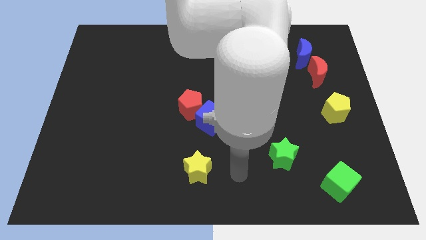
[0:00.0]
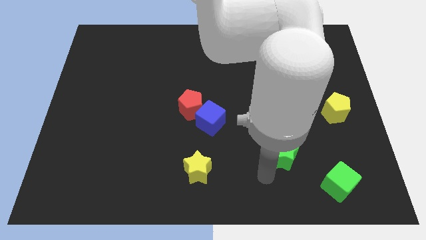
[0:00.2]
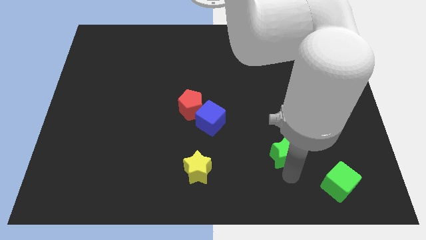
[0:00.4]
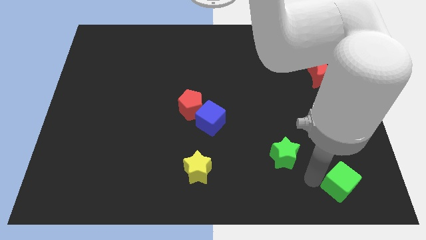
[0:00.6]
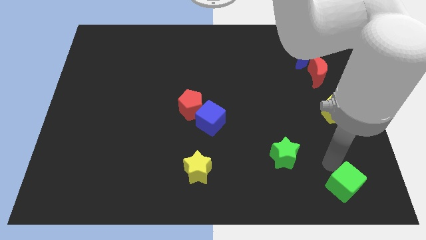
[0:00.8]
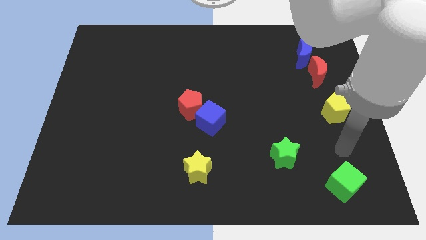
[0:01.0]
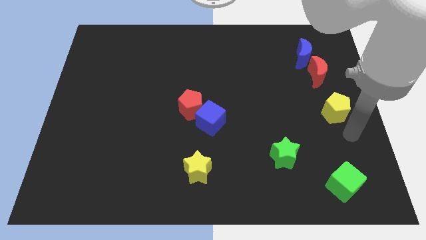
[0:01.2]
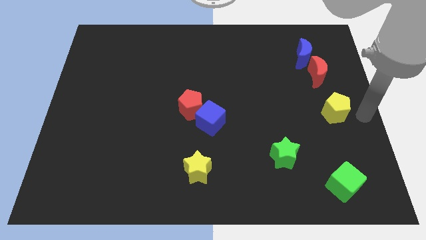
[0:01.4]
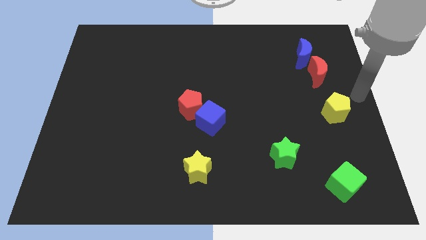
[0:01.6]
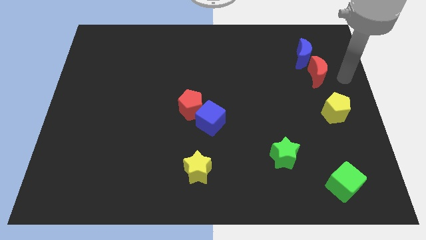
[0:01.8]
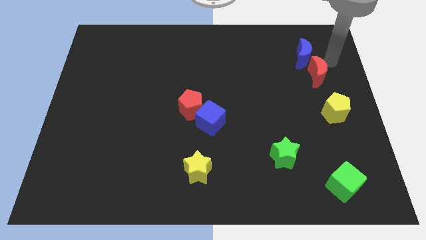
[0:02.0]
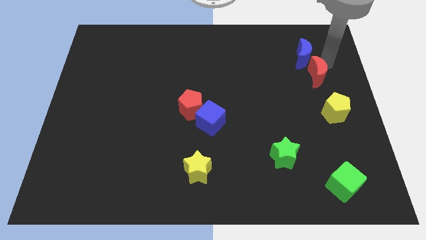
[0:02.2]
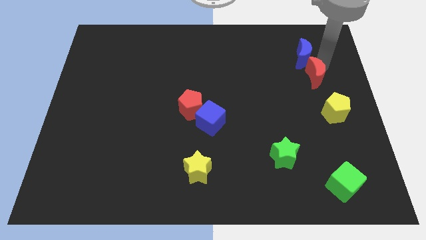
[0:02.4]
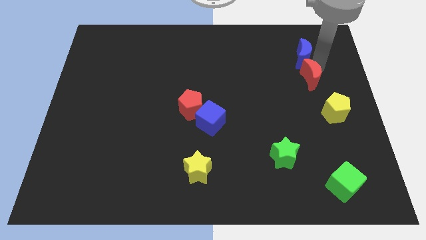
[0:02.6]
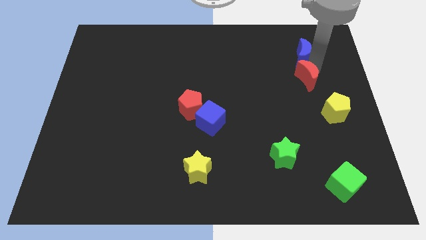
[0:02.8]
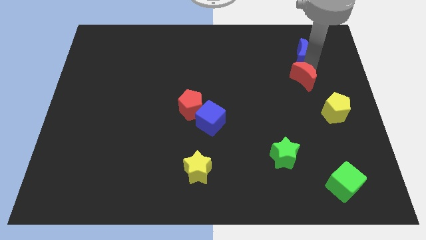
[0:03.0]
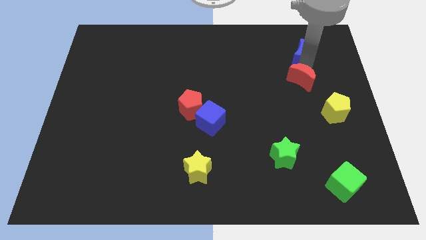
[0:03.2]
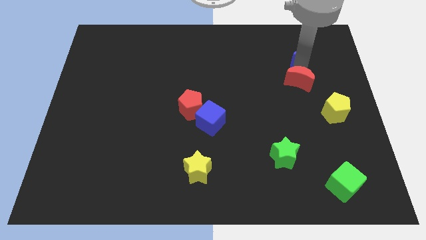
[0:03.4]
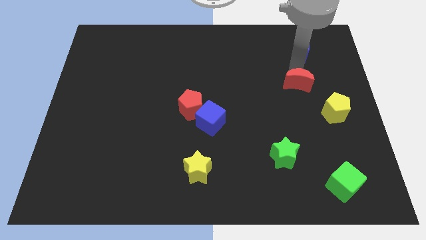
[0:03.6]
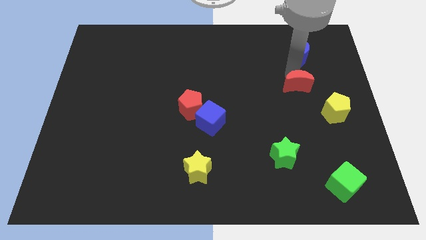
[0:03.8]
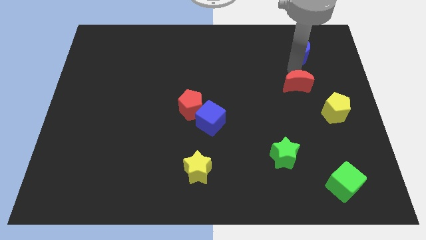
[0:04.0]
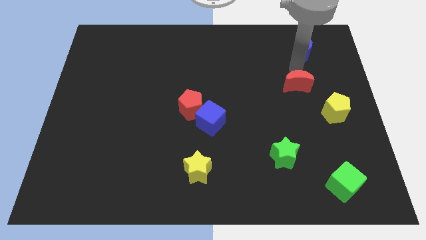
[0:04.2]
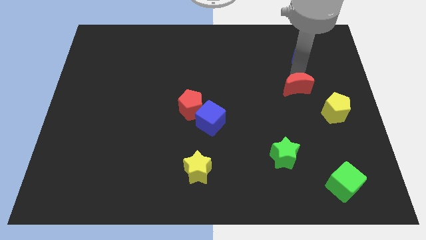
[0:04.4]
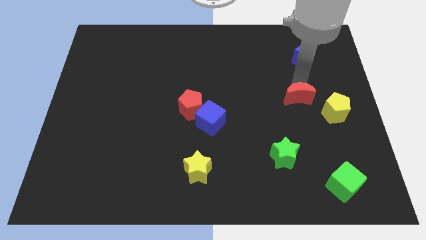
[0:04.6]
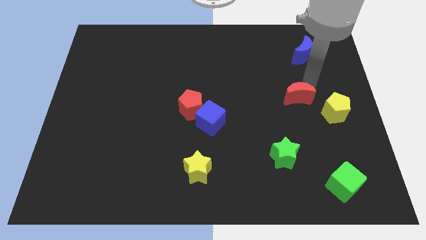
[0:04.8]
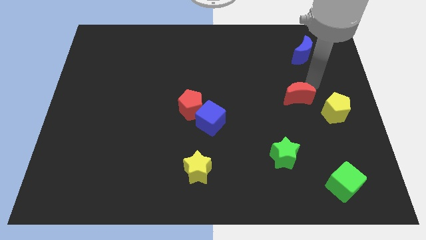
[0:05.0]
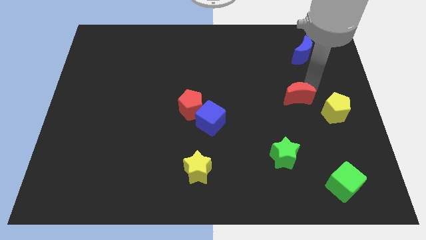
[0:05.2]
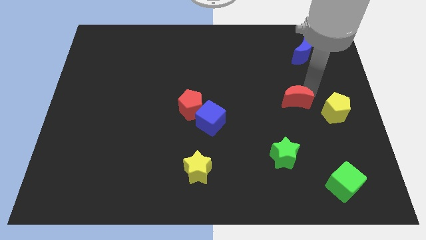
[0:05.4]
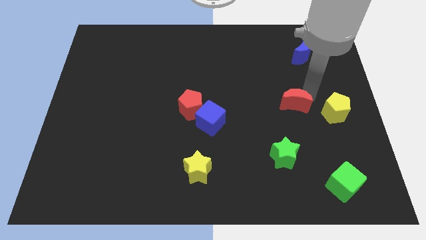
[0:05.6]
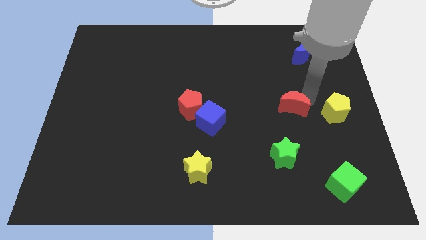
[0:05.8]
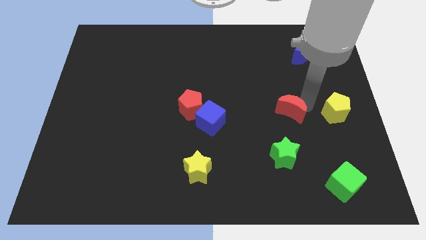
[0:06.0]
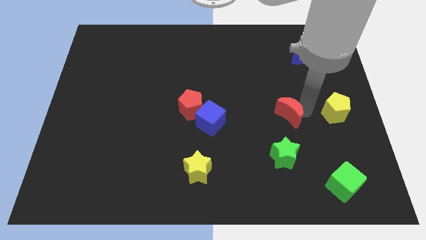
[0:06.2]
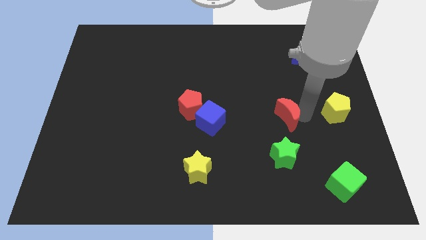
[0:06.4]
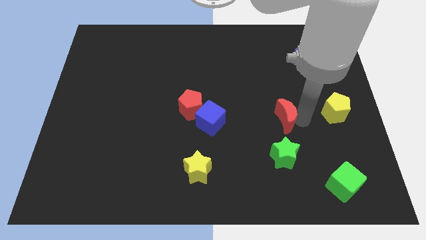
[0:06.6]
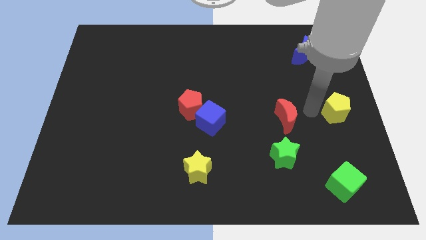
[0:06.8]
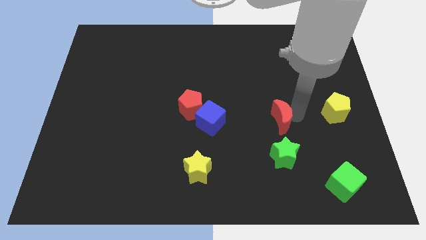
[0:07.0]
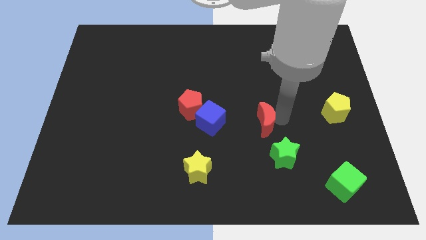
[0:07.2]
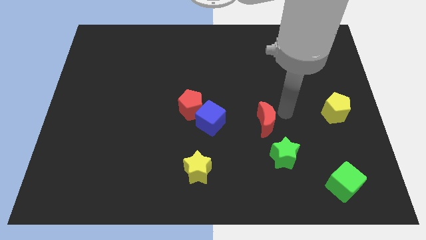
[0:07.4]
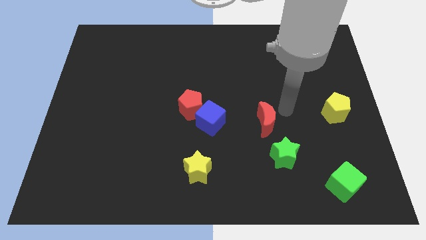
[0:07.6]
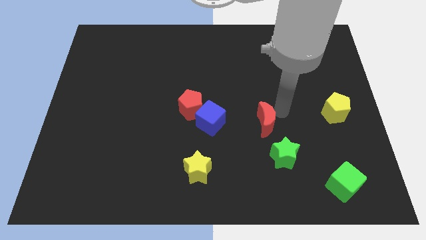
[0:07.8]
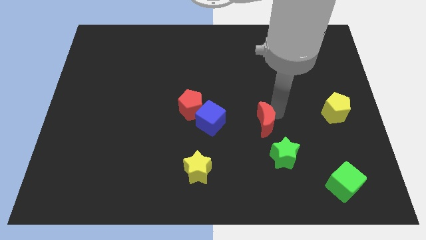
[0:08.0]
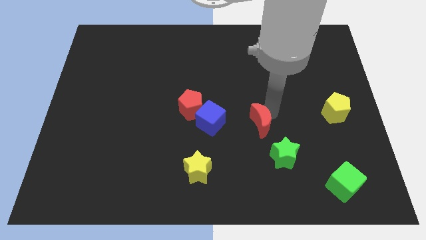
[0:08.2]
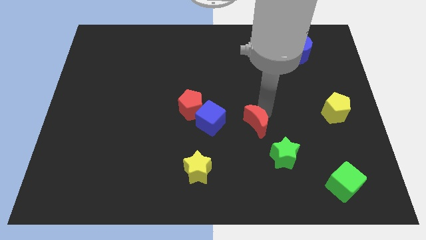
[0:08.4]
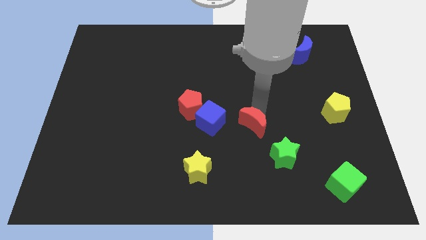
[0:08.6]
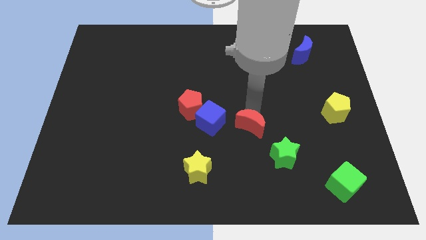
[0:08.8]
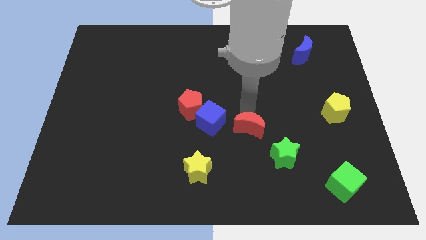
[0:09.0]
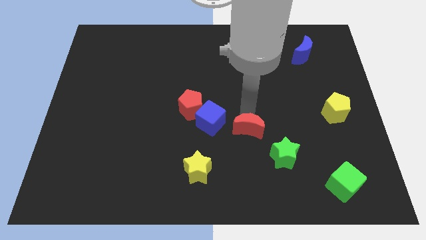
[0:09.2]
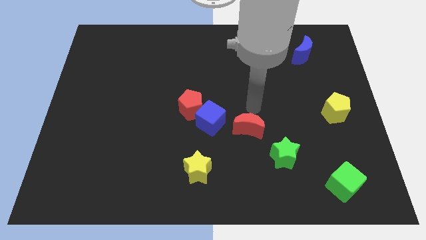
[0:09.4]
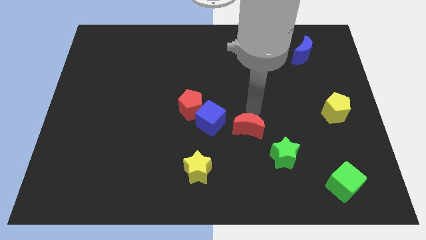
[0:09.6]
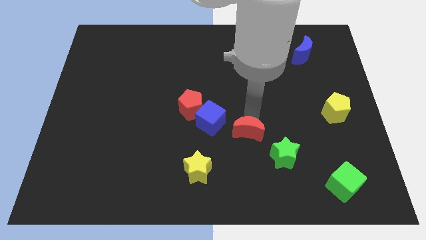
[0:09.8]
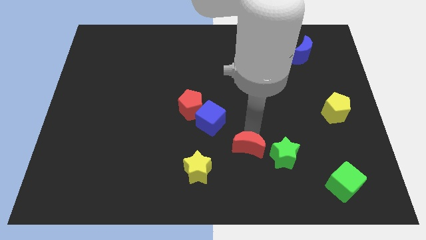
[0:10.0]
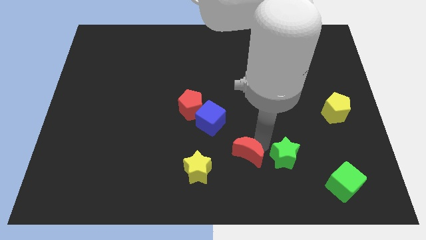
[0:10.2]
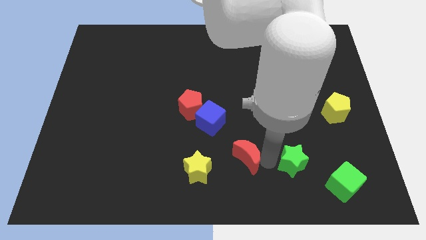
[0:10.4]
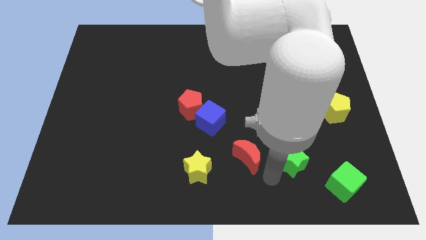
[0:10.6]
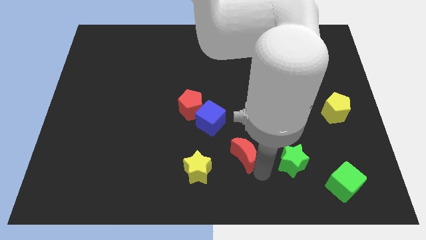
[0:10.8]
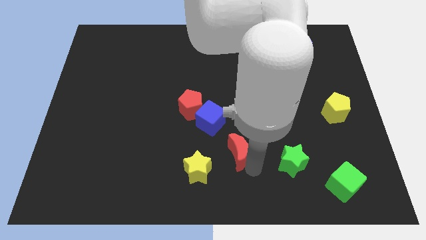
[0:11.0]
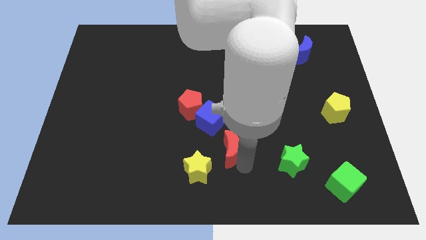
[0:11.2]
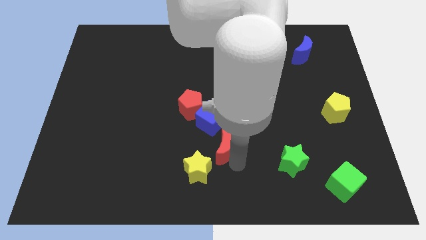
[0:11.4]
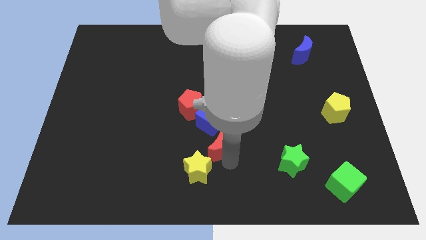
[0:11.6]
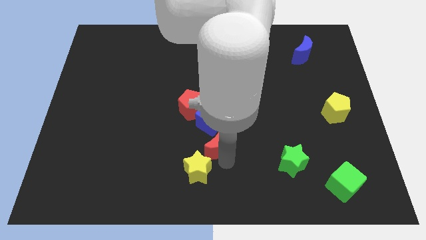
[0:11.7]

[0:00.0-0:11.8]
put the red moon diagonally down and to the right of the red pentagon

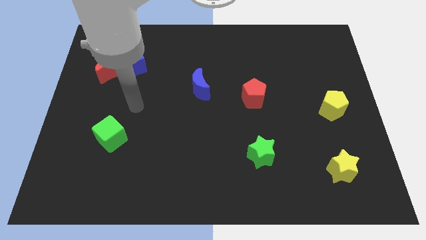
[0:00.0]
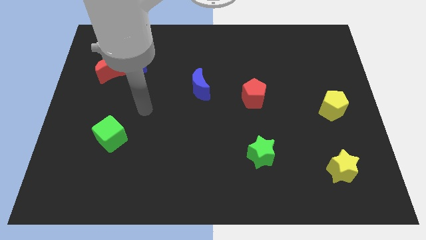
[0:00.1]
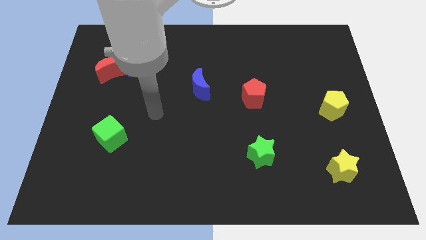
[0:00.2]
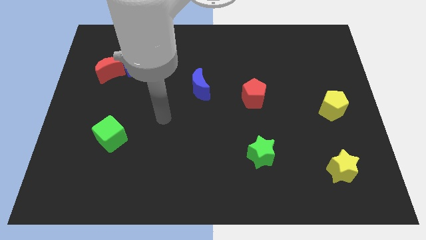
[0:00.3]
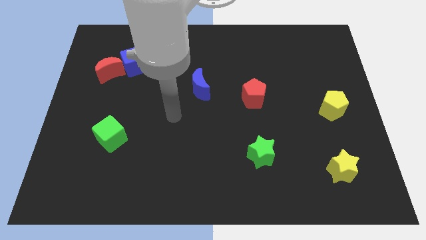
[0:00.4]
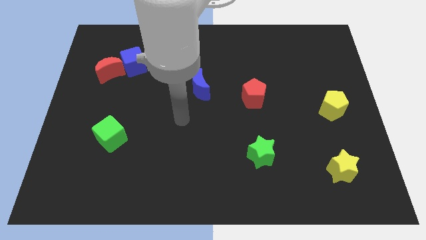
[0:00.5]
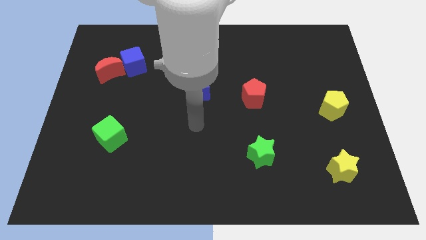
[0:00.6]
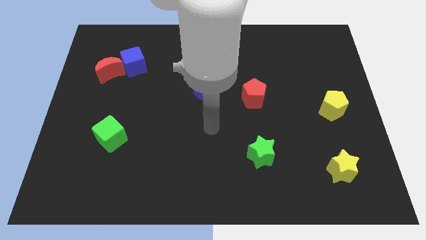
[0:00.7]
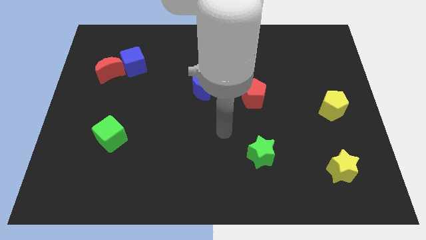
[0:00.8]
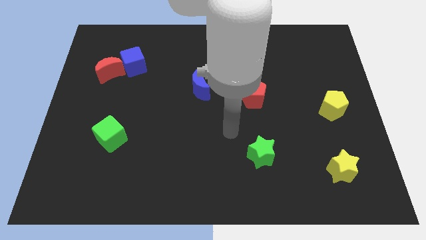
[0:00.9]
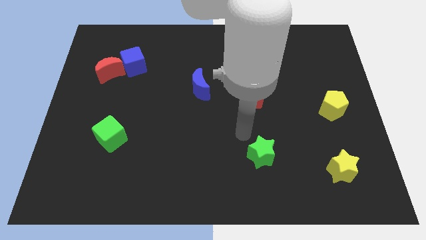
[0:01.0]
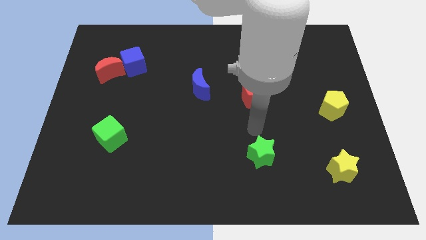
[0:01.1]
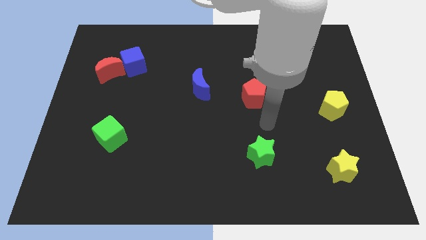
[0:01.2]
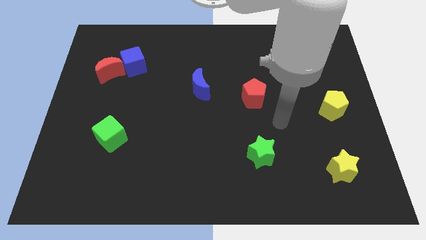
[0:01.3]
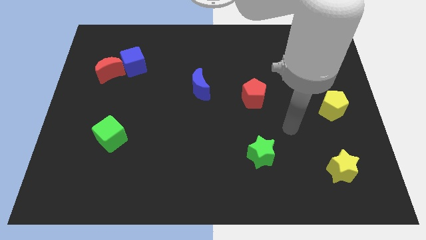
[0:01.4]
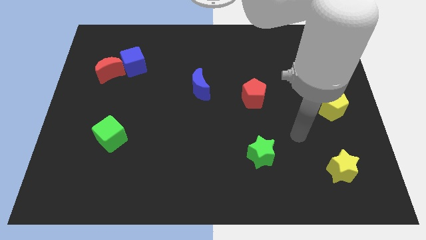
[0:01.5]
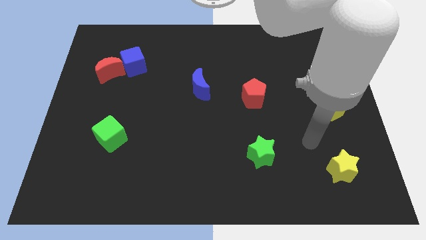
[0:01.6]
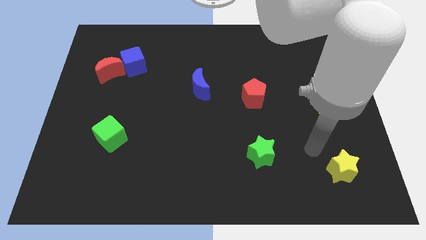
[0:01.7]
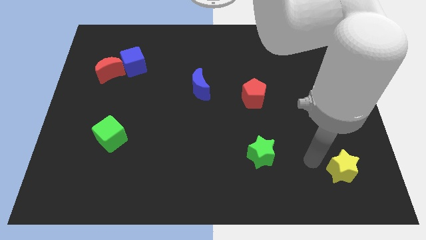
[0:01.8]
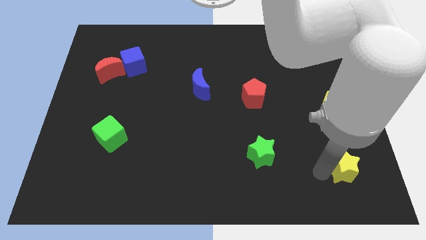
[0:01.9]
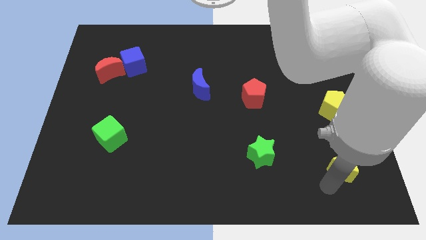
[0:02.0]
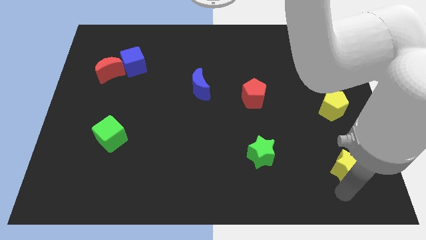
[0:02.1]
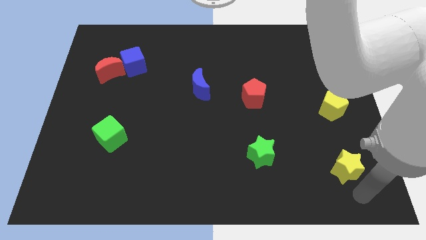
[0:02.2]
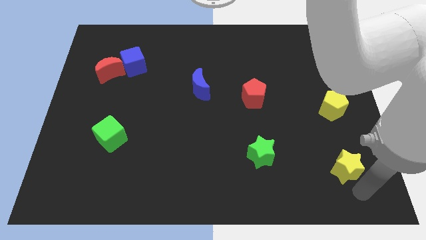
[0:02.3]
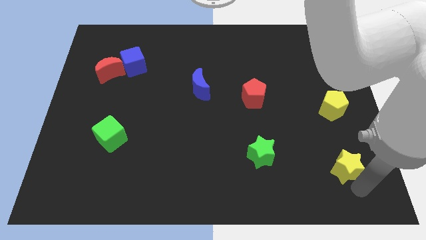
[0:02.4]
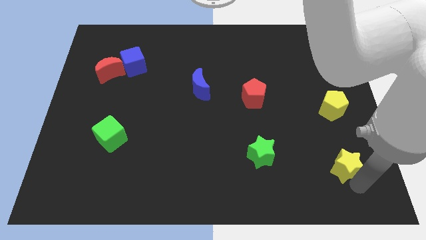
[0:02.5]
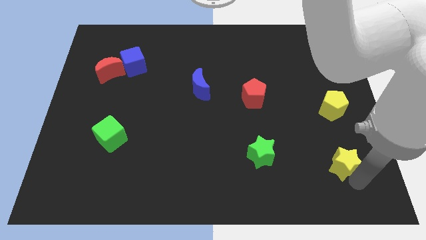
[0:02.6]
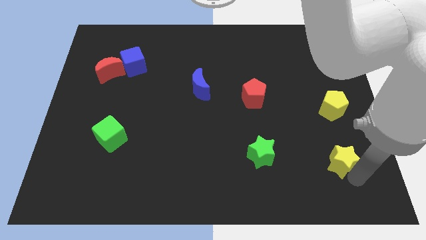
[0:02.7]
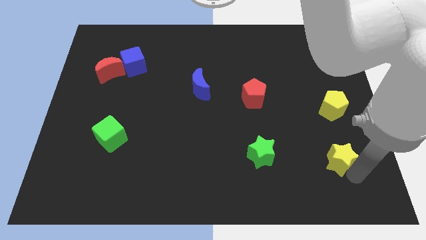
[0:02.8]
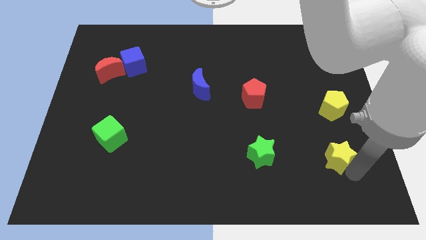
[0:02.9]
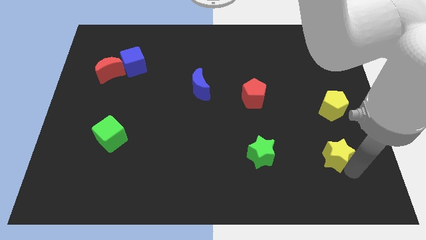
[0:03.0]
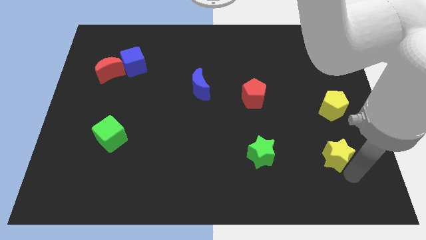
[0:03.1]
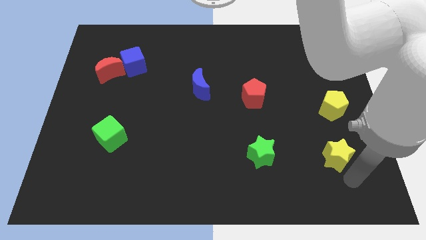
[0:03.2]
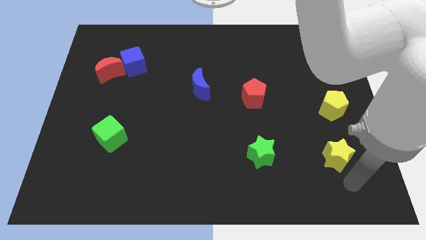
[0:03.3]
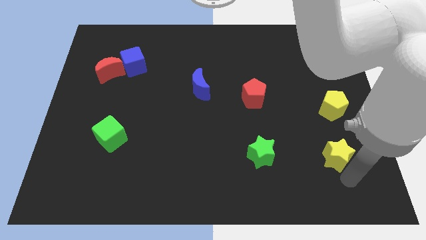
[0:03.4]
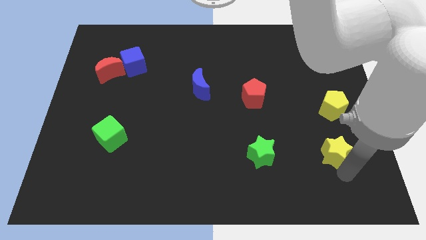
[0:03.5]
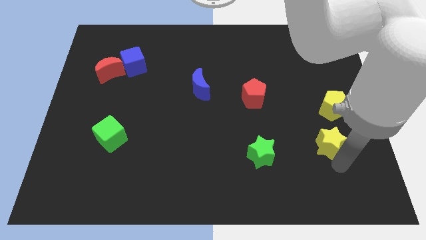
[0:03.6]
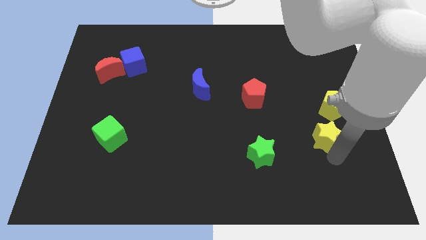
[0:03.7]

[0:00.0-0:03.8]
move the yellow star diagonally down and to the left of the yellow pentagon
